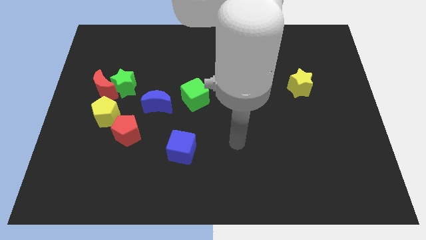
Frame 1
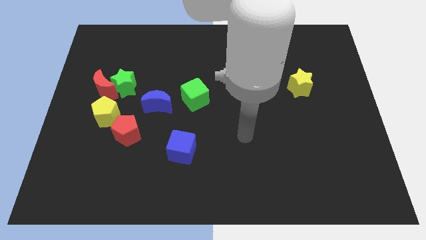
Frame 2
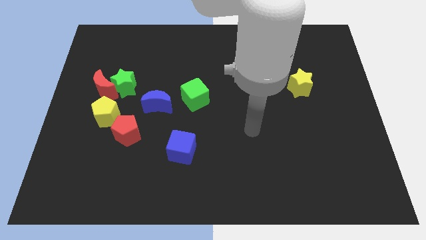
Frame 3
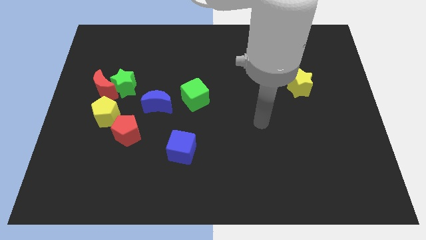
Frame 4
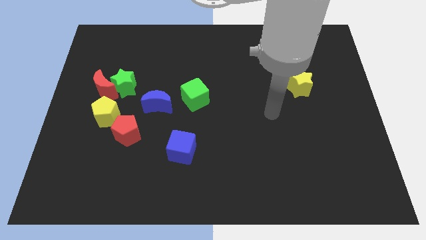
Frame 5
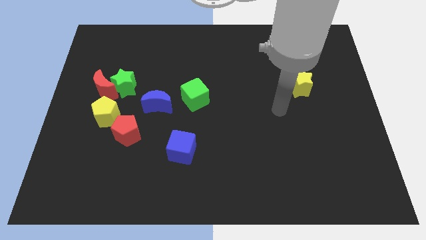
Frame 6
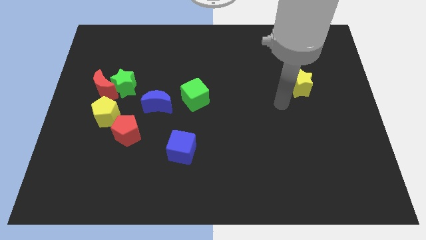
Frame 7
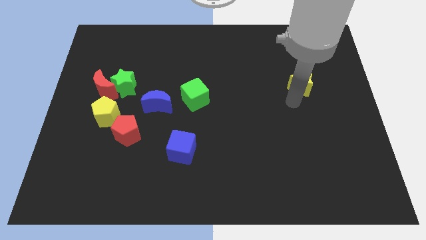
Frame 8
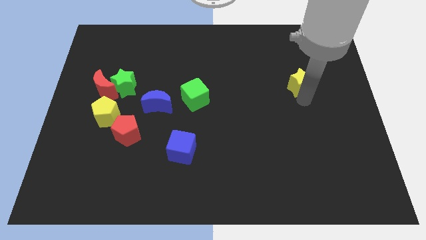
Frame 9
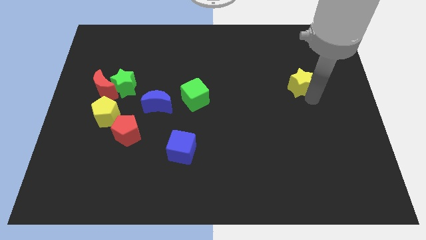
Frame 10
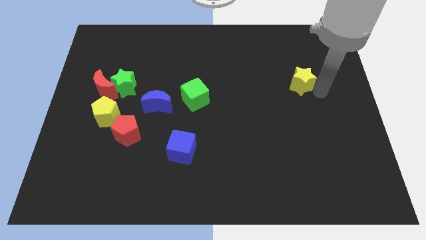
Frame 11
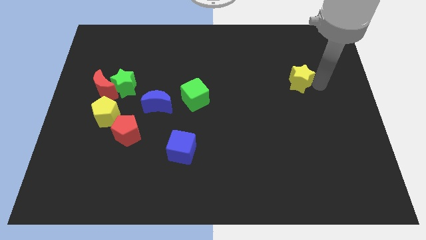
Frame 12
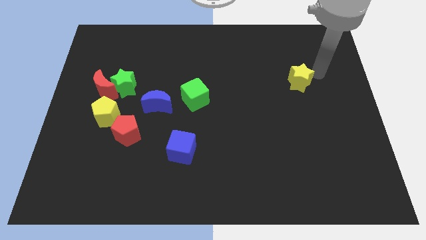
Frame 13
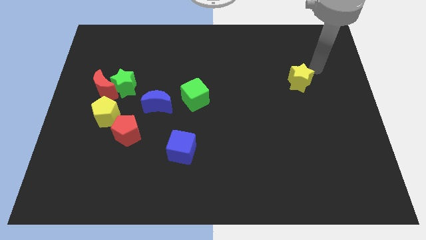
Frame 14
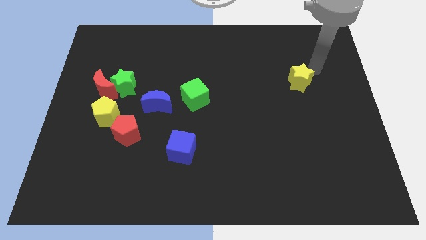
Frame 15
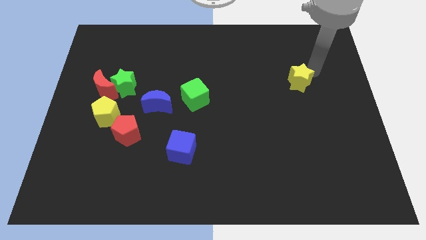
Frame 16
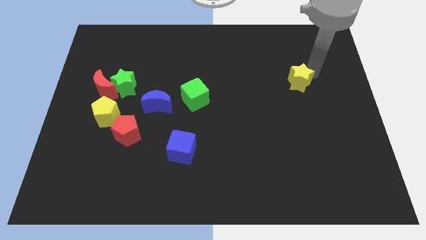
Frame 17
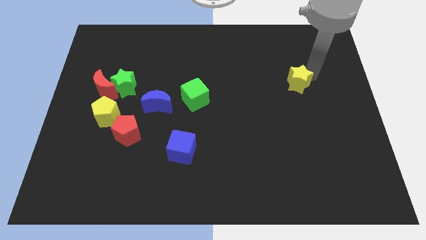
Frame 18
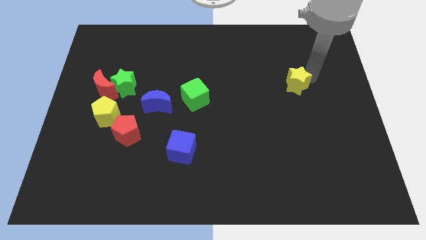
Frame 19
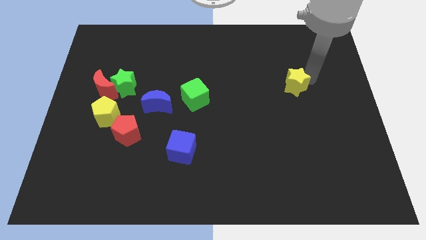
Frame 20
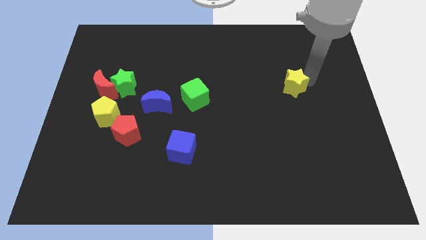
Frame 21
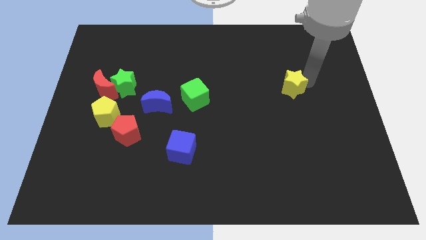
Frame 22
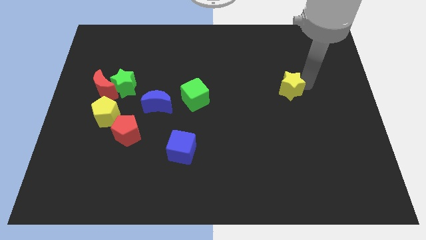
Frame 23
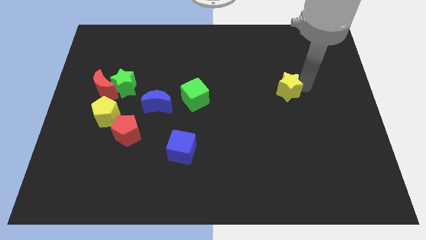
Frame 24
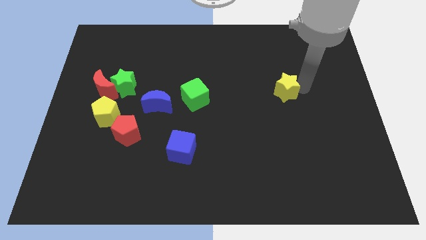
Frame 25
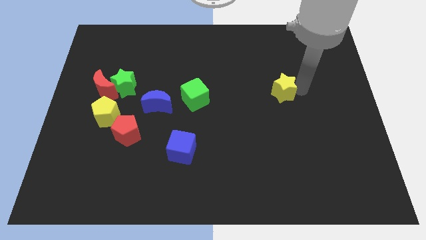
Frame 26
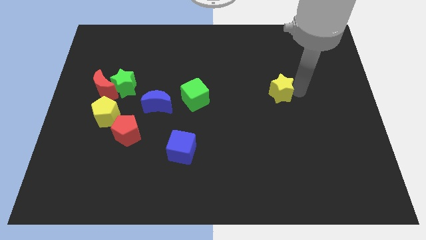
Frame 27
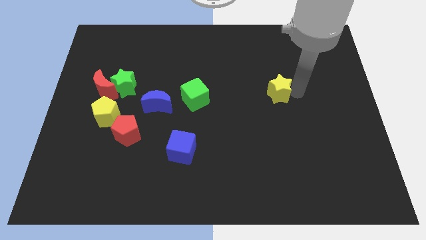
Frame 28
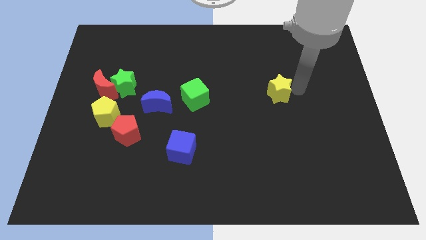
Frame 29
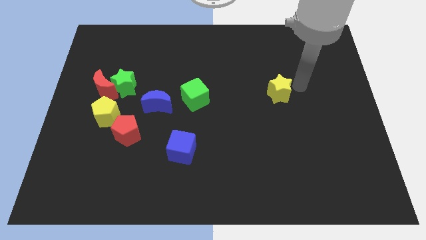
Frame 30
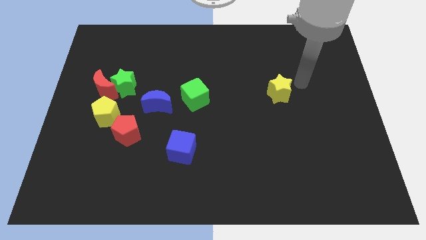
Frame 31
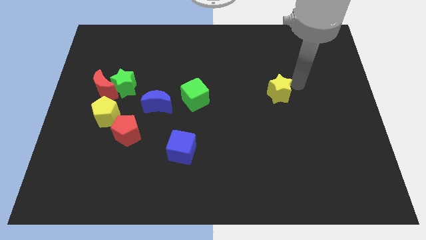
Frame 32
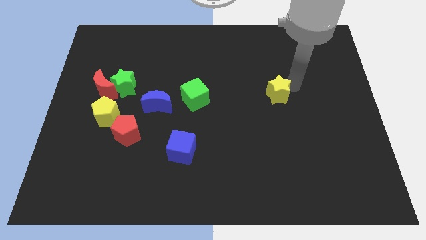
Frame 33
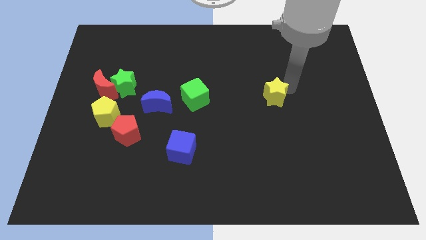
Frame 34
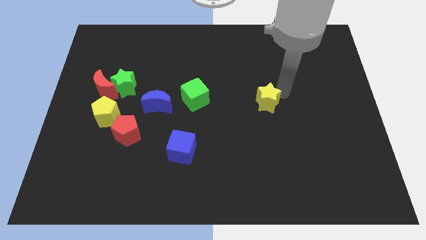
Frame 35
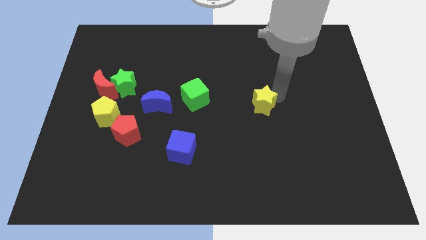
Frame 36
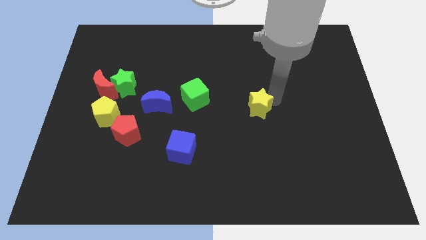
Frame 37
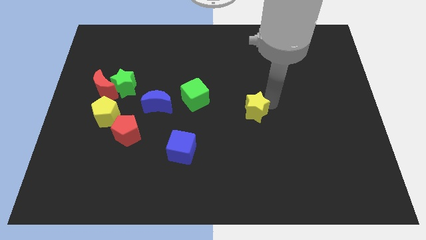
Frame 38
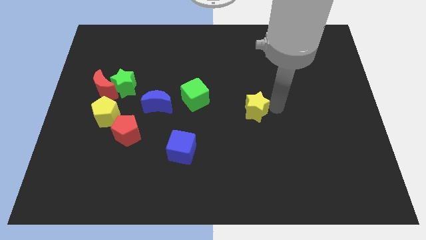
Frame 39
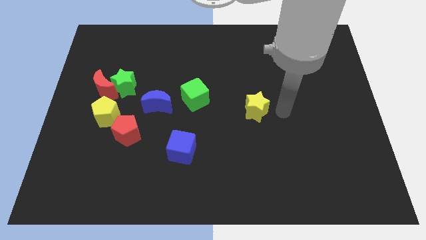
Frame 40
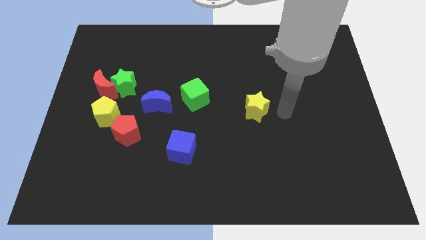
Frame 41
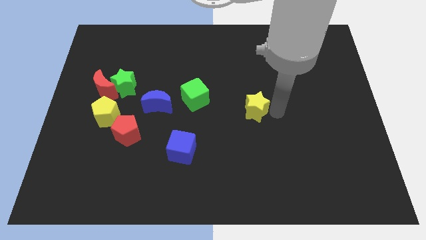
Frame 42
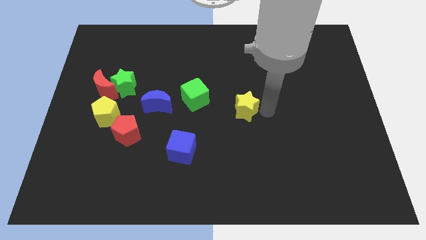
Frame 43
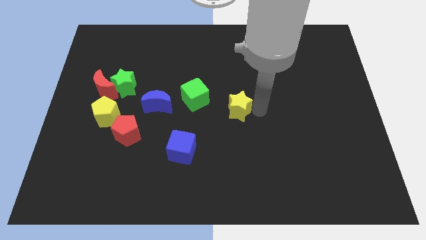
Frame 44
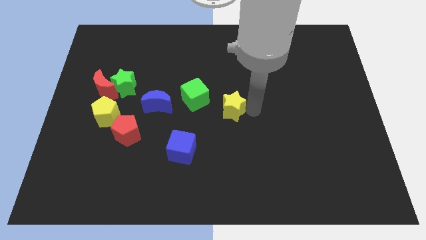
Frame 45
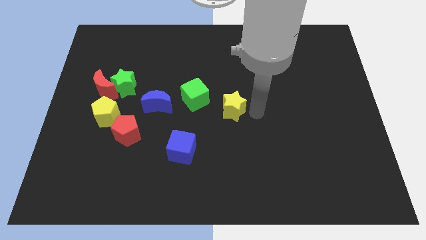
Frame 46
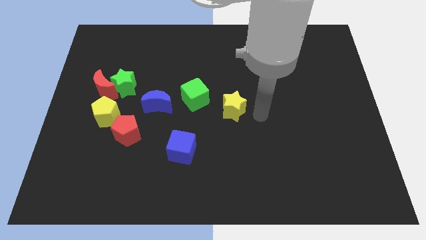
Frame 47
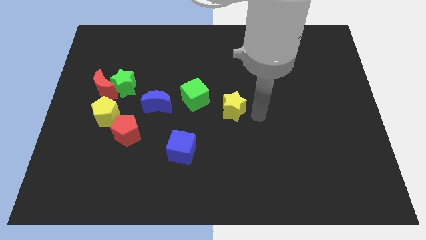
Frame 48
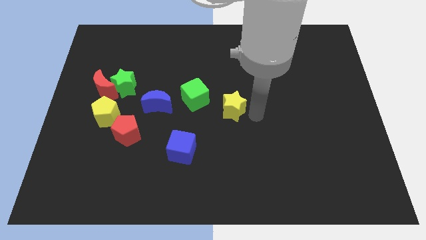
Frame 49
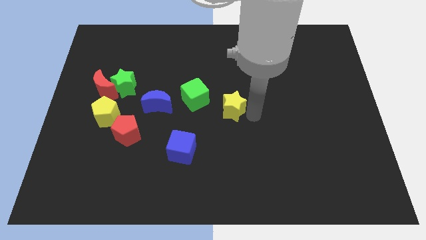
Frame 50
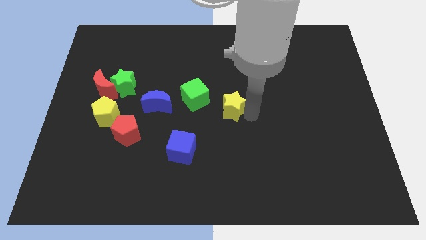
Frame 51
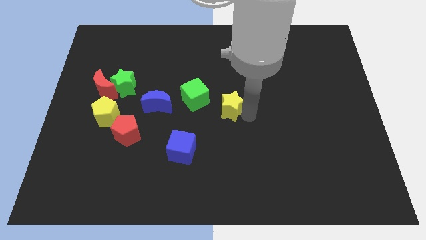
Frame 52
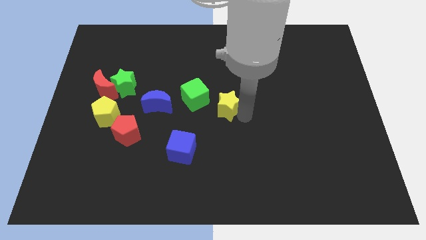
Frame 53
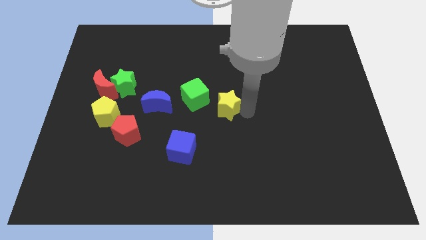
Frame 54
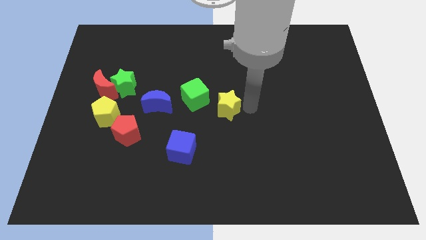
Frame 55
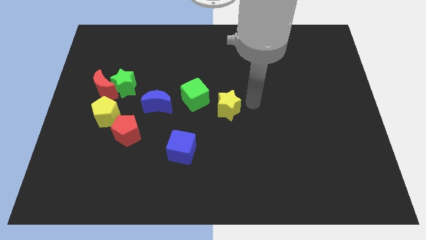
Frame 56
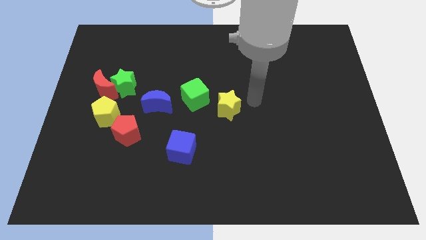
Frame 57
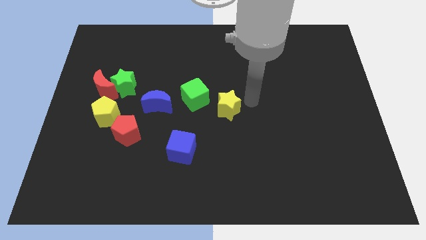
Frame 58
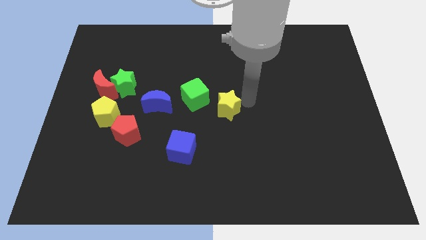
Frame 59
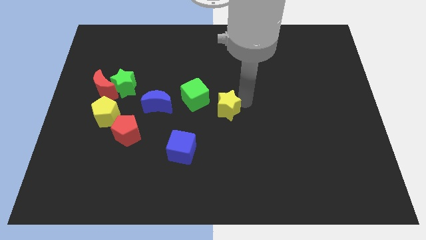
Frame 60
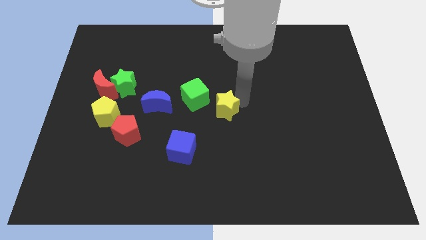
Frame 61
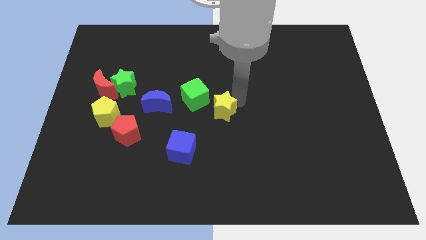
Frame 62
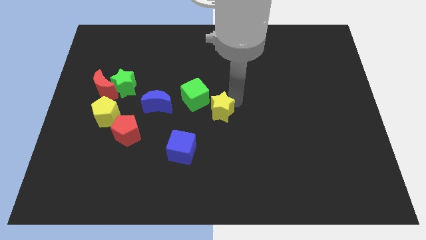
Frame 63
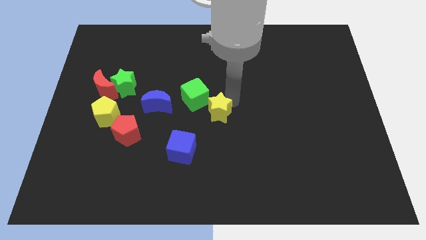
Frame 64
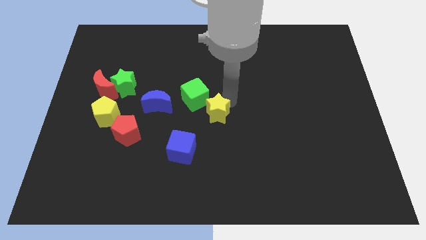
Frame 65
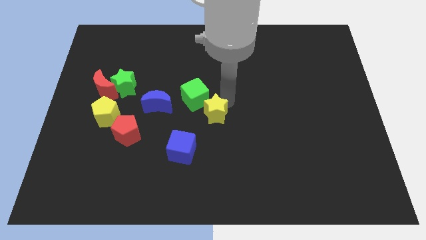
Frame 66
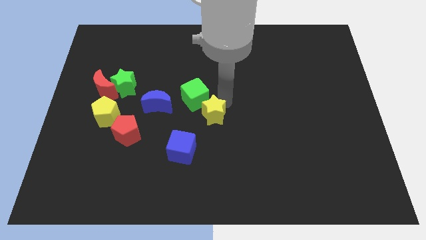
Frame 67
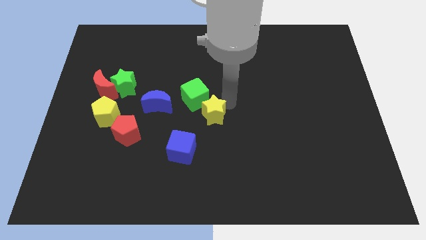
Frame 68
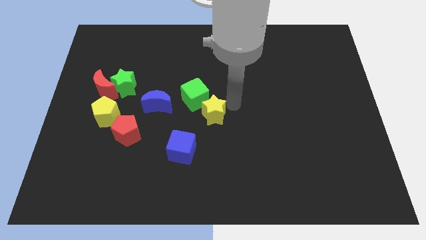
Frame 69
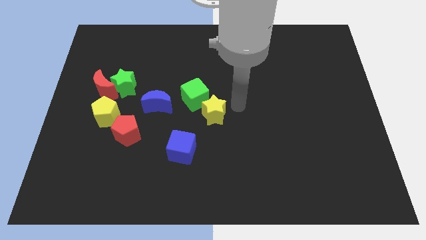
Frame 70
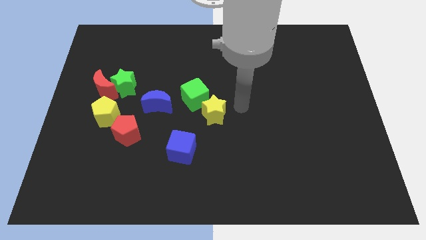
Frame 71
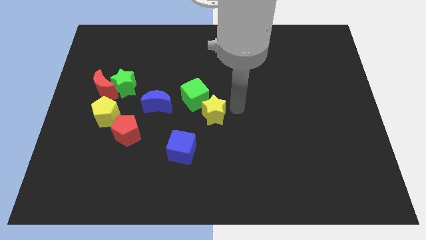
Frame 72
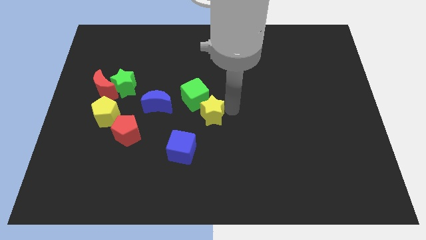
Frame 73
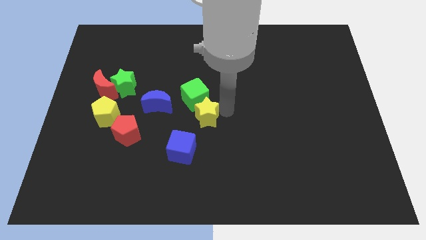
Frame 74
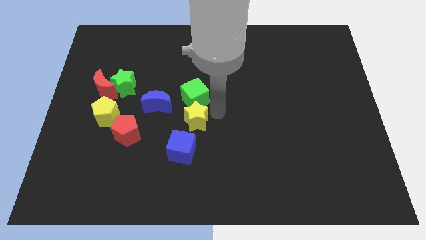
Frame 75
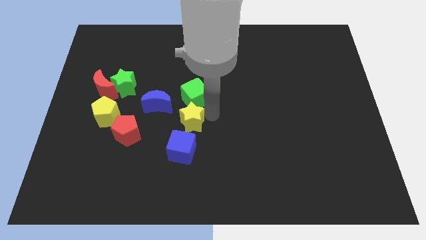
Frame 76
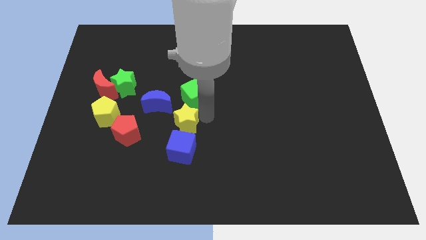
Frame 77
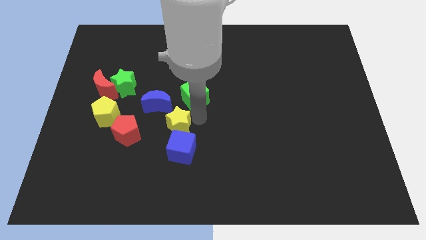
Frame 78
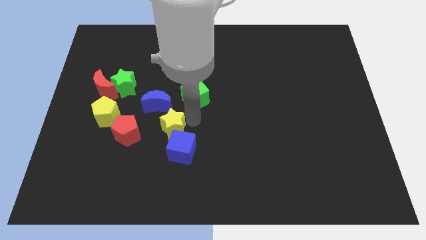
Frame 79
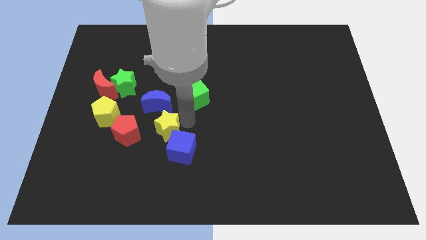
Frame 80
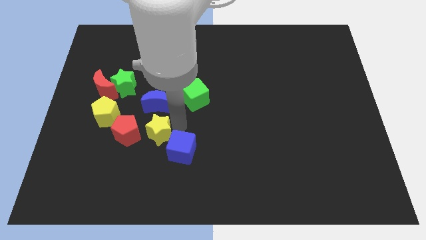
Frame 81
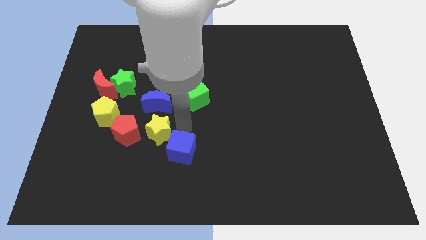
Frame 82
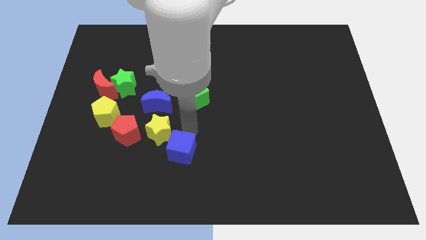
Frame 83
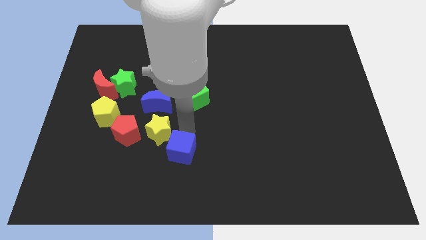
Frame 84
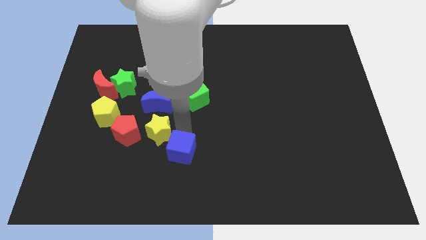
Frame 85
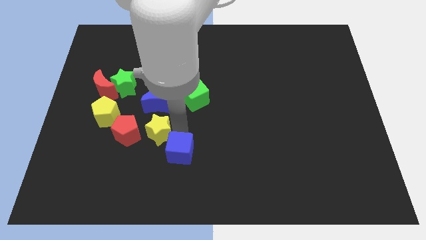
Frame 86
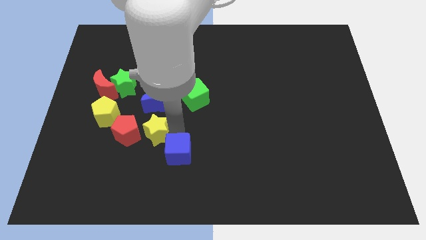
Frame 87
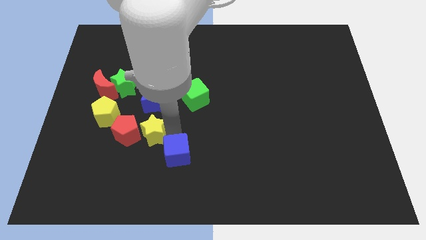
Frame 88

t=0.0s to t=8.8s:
move the yellow star towards the red pentagon
